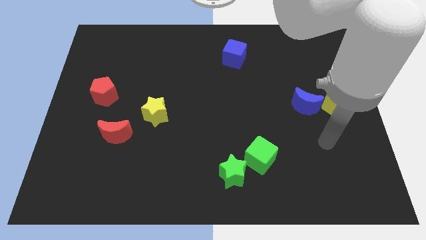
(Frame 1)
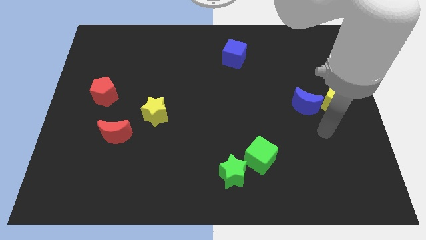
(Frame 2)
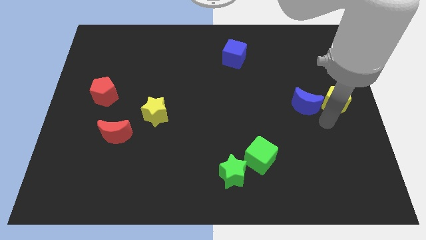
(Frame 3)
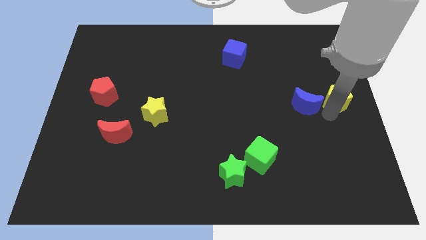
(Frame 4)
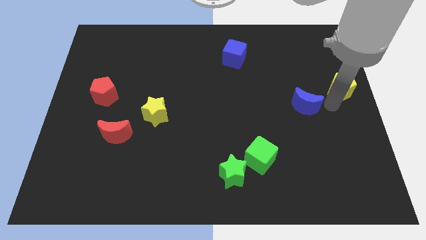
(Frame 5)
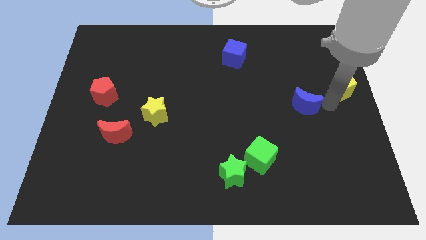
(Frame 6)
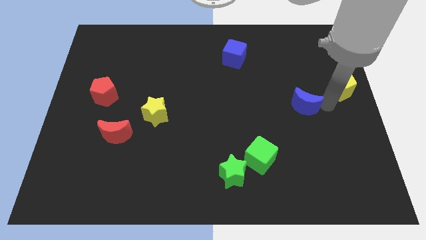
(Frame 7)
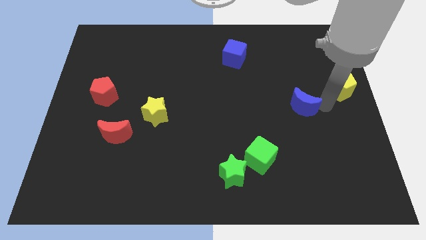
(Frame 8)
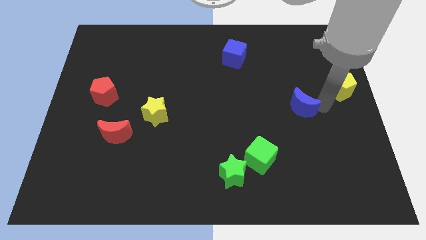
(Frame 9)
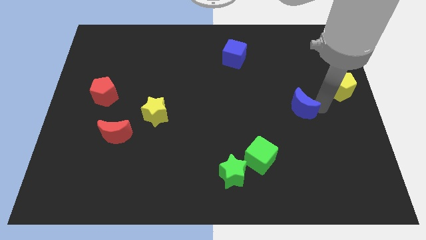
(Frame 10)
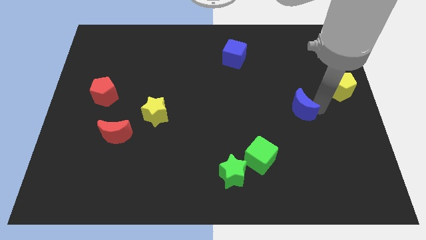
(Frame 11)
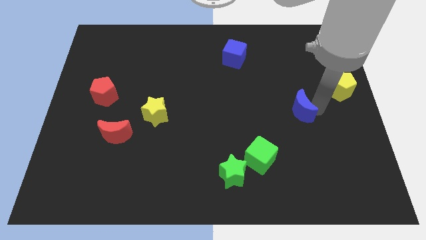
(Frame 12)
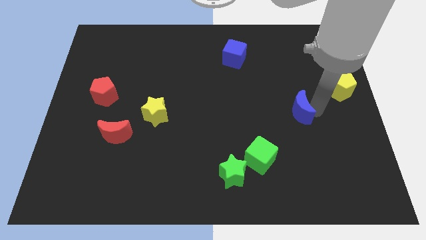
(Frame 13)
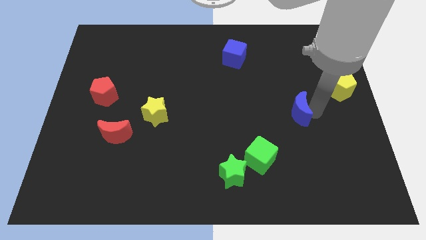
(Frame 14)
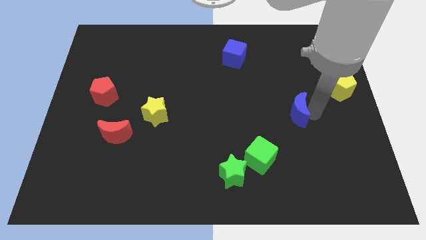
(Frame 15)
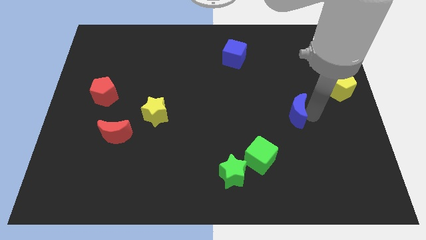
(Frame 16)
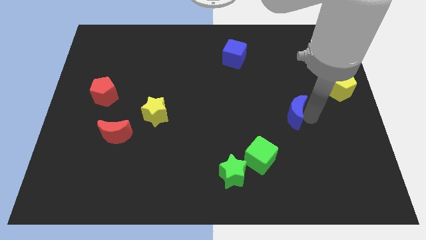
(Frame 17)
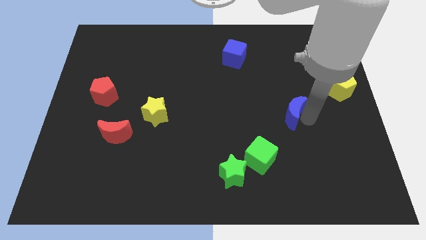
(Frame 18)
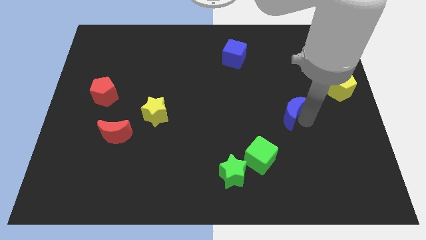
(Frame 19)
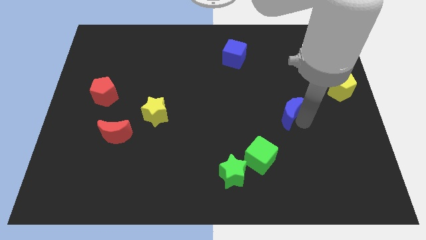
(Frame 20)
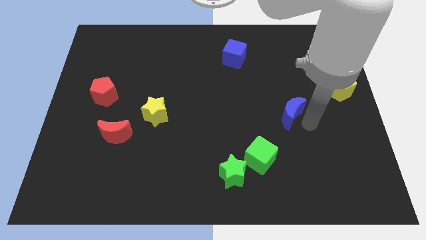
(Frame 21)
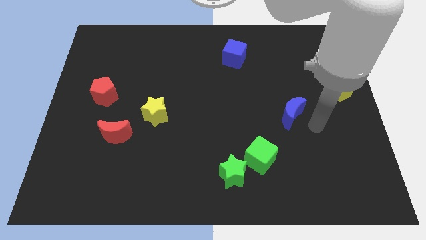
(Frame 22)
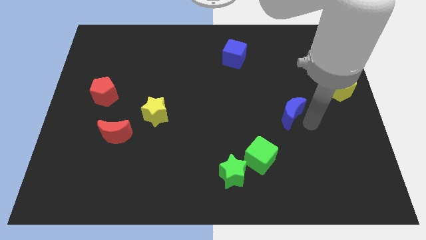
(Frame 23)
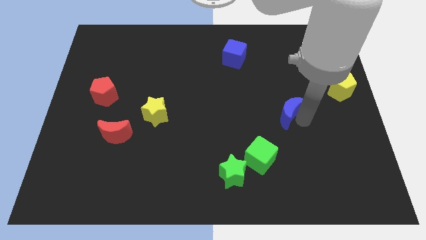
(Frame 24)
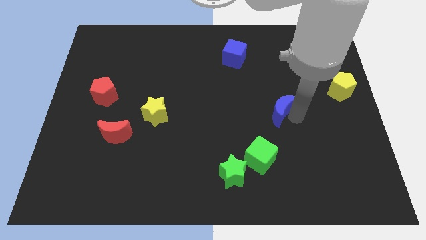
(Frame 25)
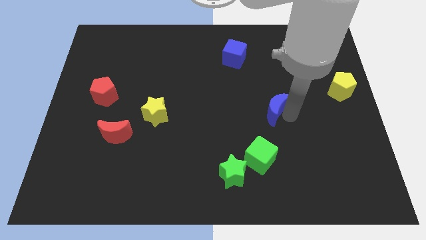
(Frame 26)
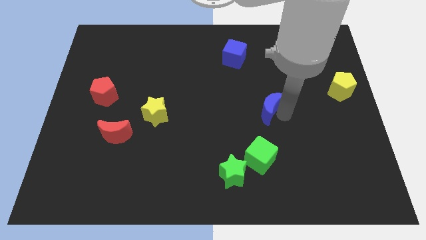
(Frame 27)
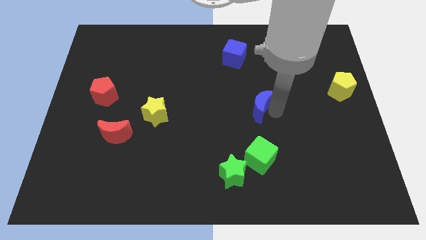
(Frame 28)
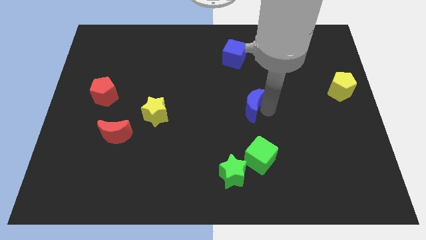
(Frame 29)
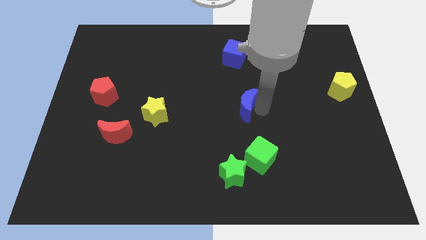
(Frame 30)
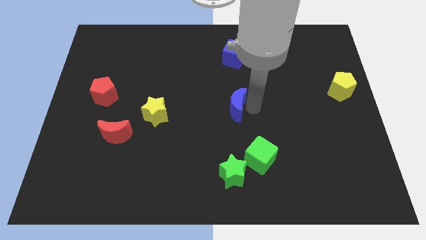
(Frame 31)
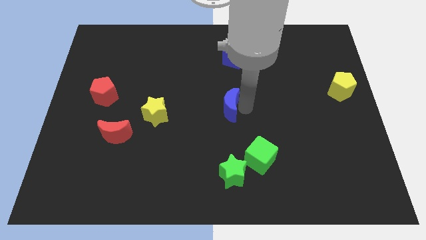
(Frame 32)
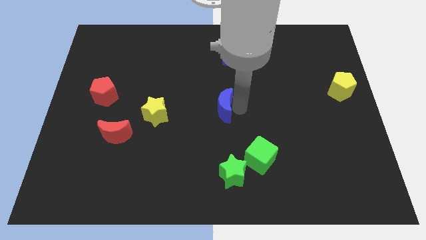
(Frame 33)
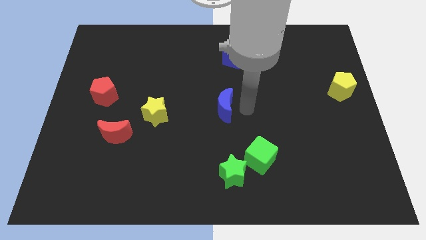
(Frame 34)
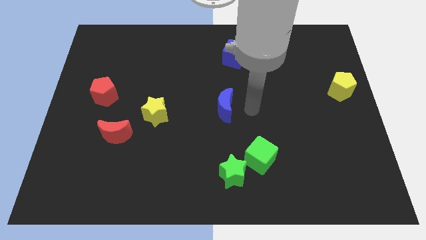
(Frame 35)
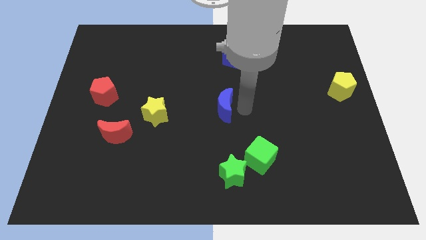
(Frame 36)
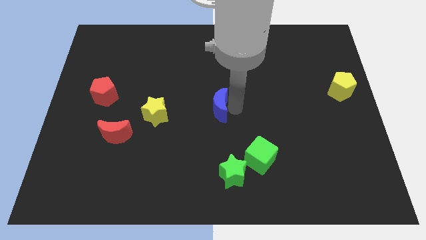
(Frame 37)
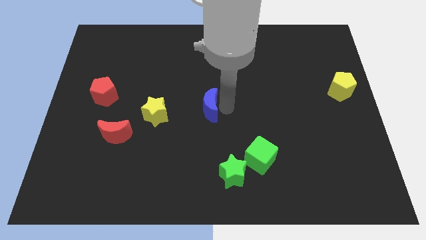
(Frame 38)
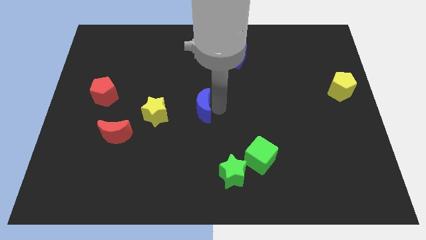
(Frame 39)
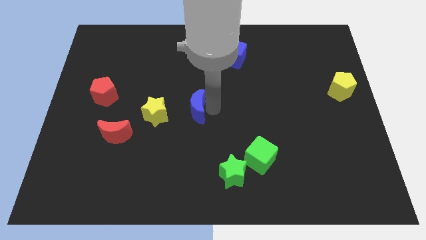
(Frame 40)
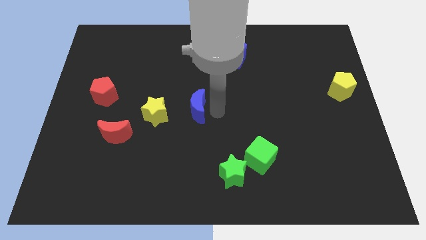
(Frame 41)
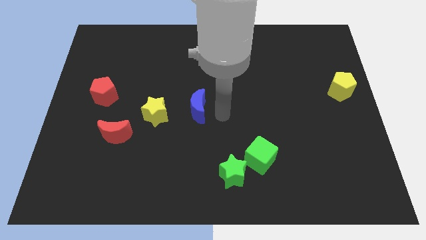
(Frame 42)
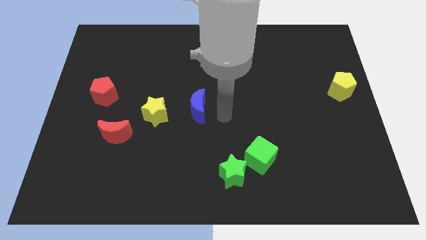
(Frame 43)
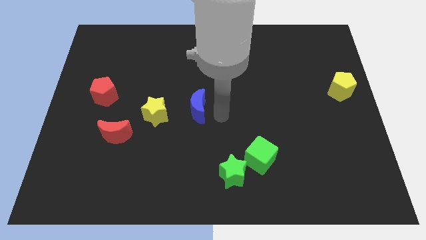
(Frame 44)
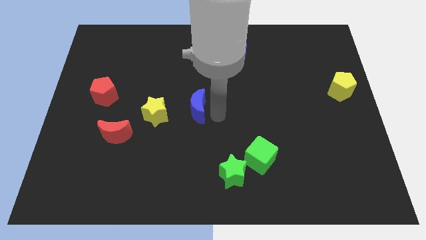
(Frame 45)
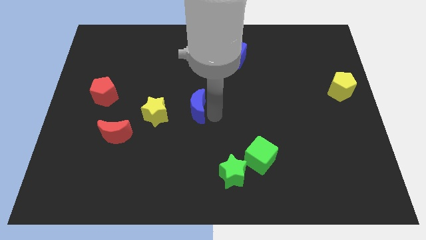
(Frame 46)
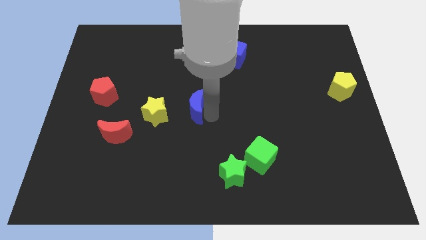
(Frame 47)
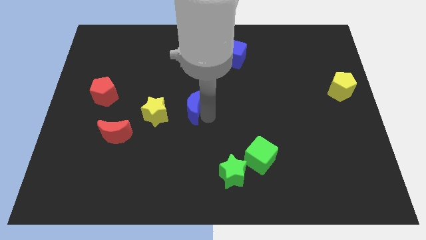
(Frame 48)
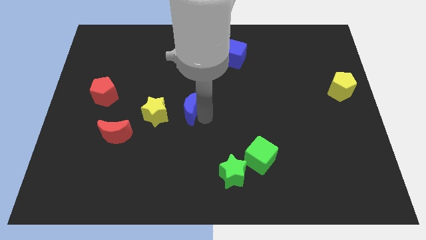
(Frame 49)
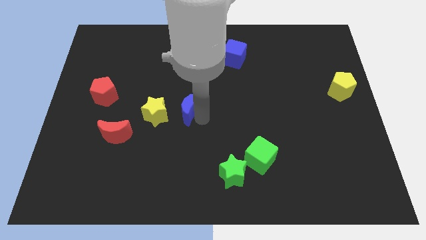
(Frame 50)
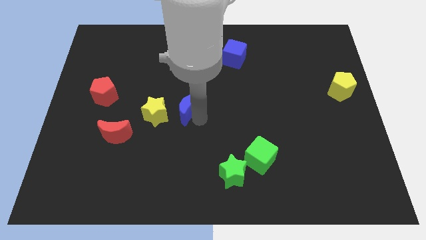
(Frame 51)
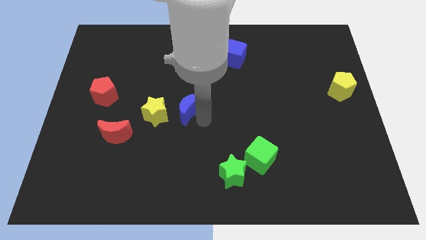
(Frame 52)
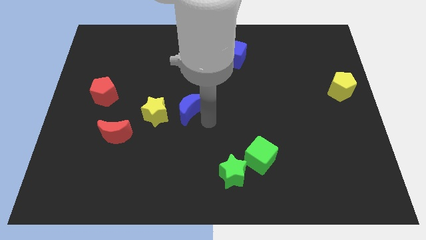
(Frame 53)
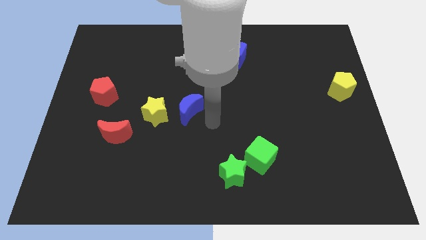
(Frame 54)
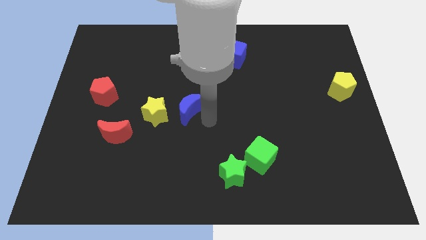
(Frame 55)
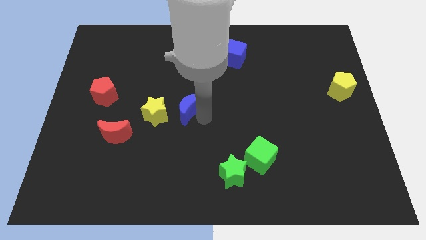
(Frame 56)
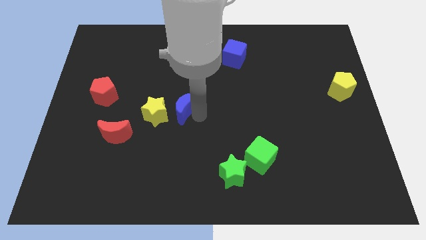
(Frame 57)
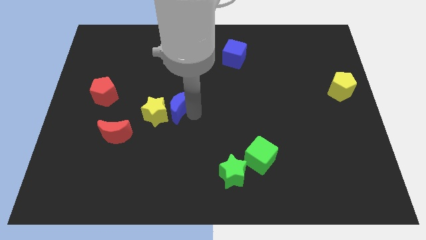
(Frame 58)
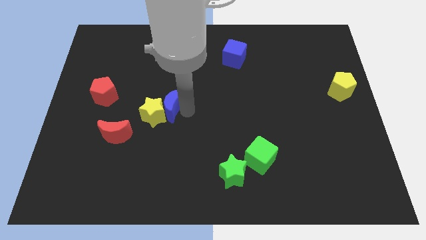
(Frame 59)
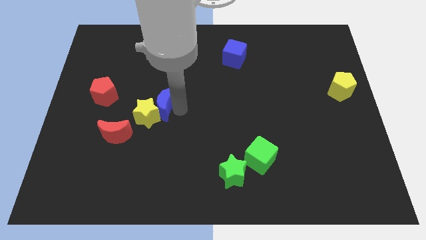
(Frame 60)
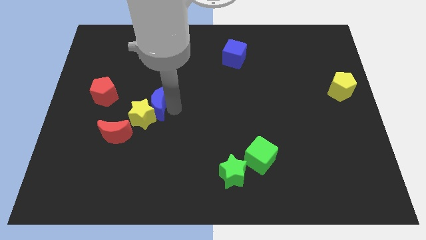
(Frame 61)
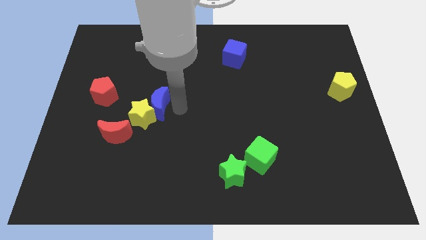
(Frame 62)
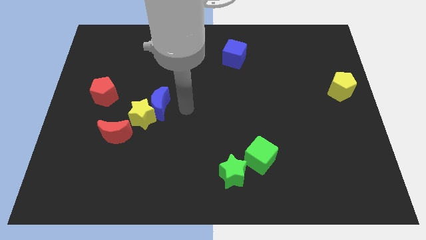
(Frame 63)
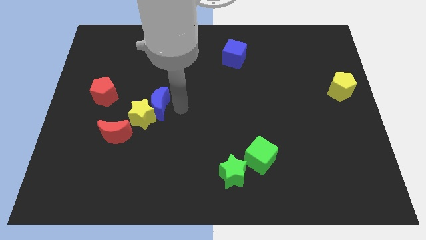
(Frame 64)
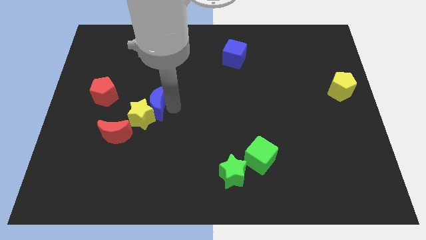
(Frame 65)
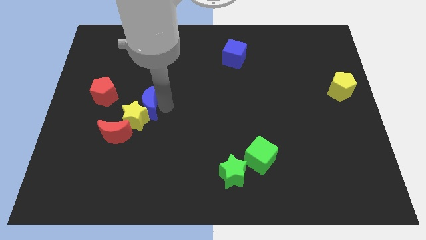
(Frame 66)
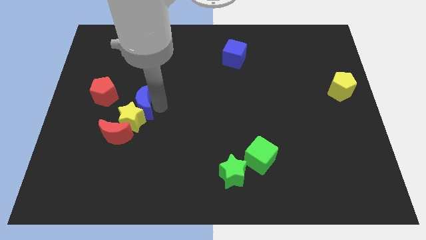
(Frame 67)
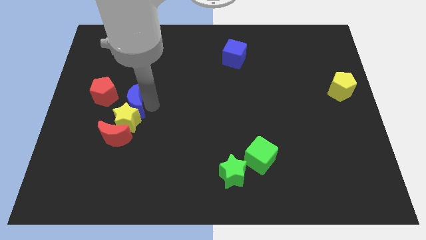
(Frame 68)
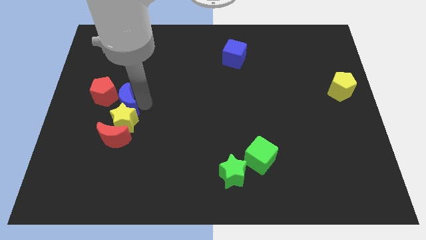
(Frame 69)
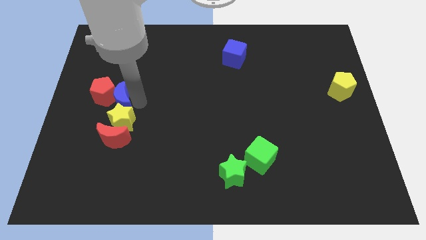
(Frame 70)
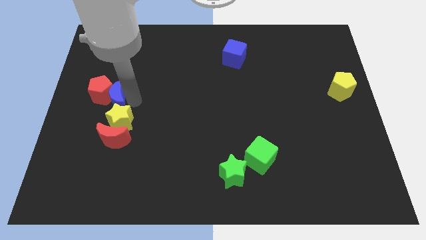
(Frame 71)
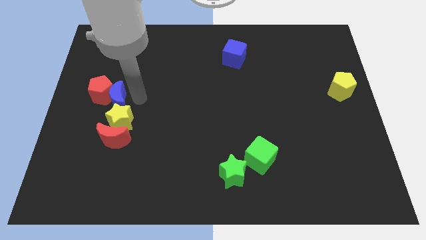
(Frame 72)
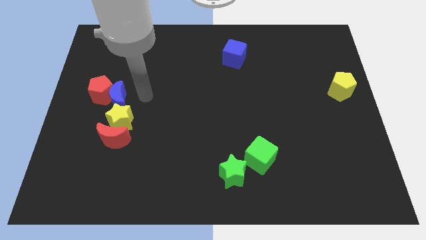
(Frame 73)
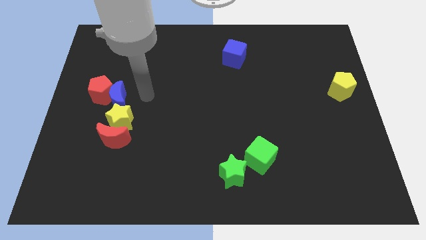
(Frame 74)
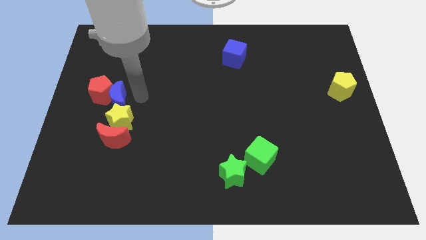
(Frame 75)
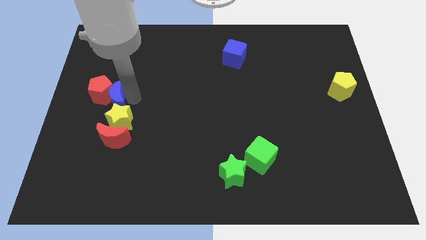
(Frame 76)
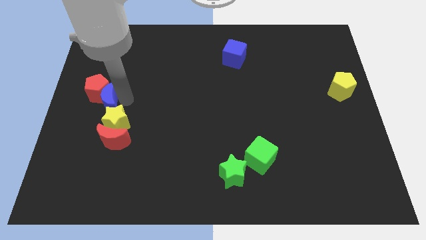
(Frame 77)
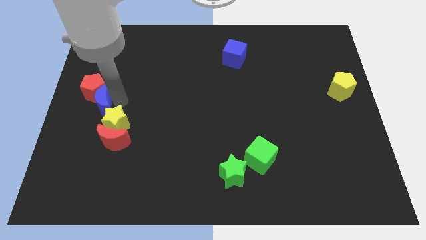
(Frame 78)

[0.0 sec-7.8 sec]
move the blue moon to the center left

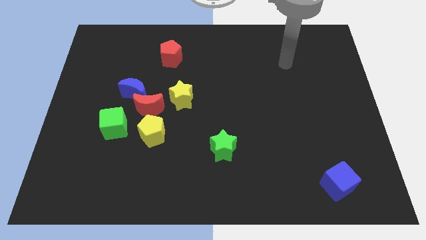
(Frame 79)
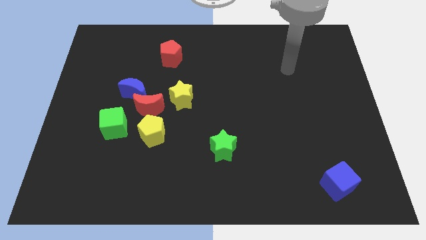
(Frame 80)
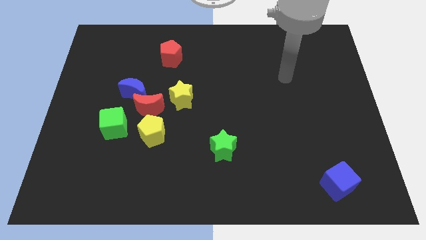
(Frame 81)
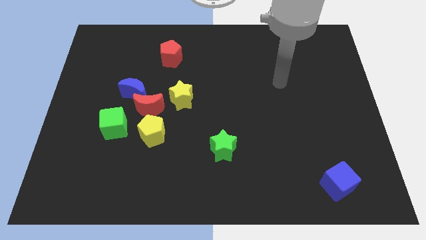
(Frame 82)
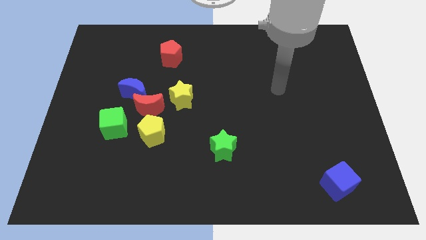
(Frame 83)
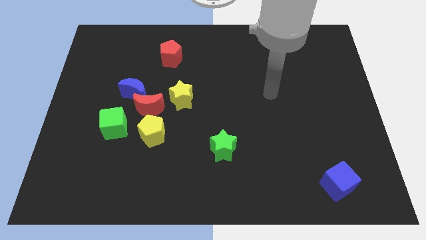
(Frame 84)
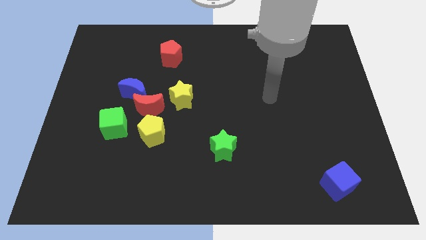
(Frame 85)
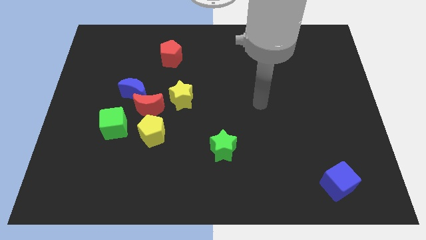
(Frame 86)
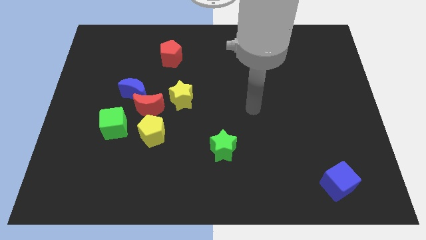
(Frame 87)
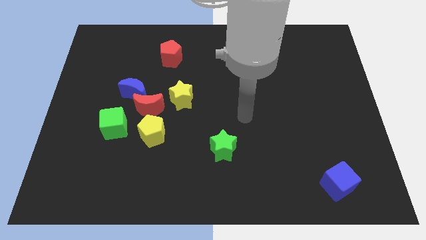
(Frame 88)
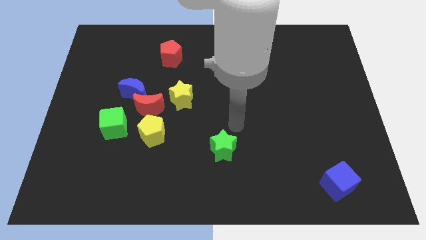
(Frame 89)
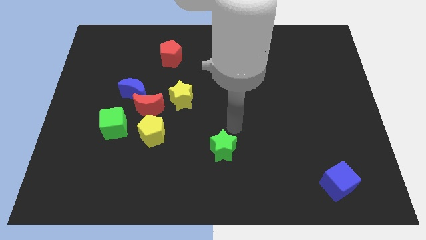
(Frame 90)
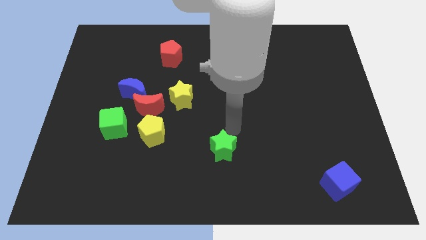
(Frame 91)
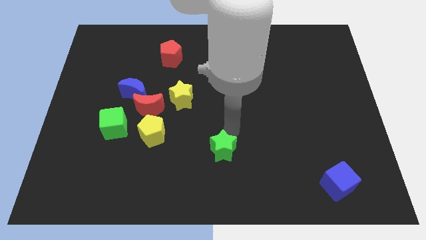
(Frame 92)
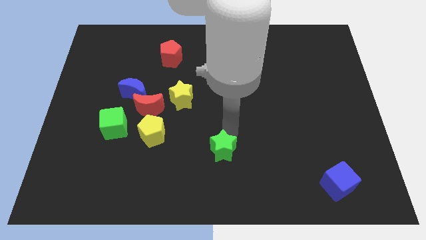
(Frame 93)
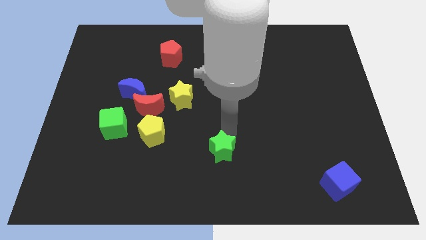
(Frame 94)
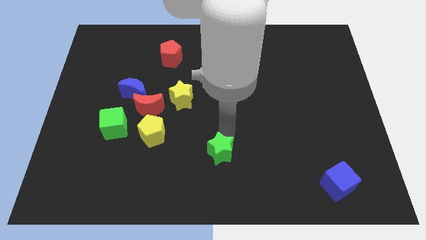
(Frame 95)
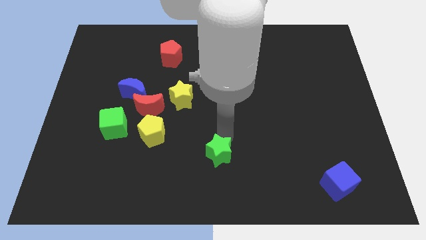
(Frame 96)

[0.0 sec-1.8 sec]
slide the green star to the bottom
